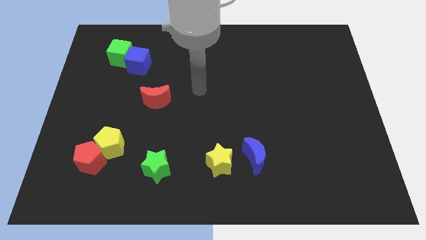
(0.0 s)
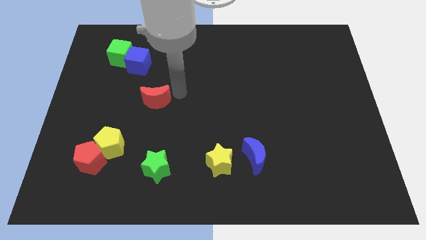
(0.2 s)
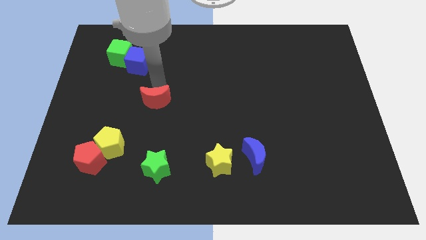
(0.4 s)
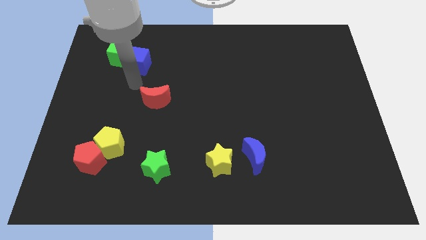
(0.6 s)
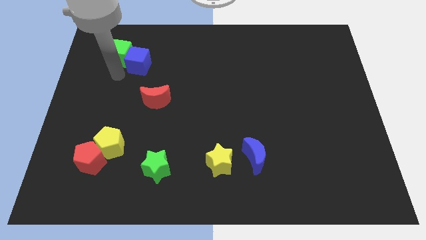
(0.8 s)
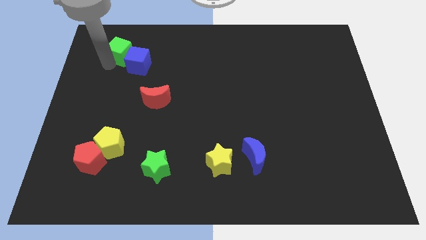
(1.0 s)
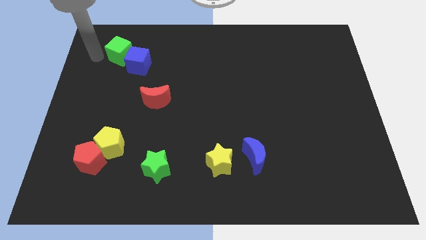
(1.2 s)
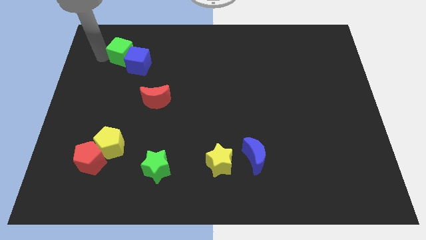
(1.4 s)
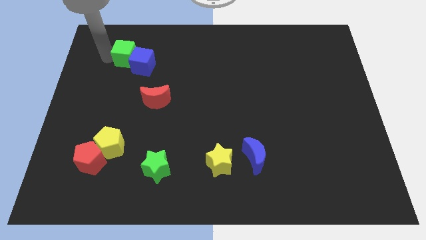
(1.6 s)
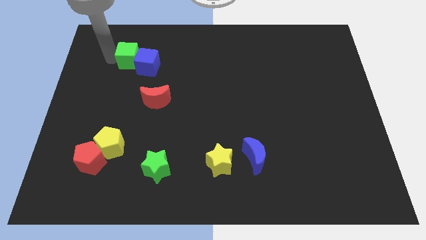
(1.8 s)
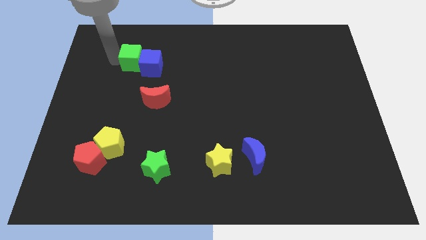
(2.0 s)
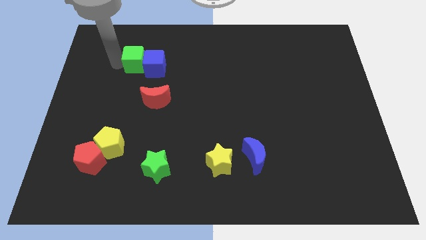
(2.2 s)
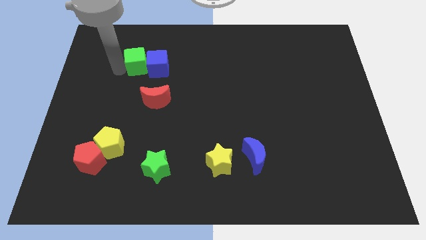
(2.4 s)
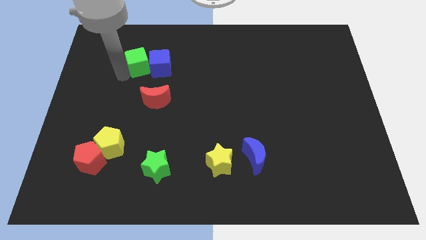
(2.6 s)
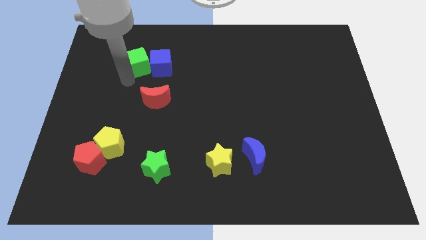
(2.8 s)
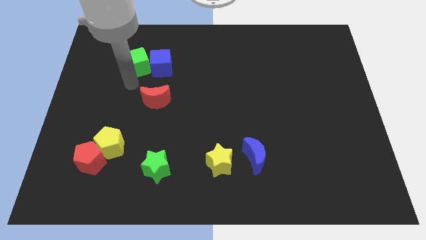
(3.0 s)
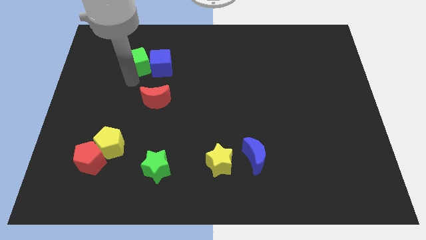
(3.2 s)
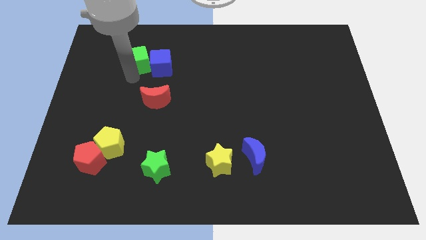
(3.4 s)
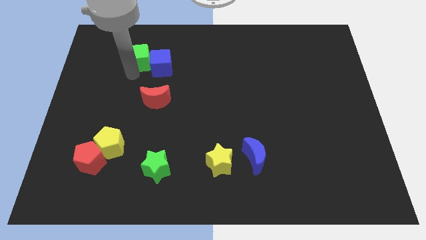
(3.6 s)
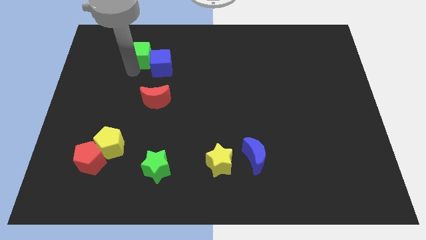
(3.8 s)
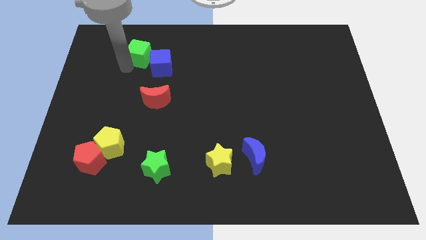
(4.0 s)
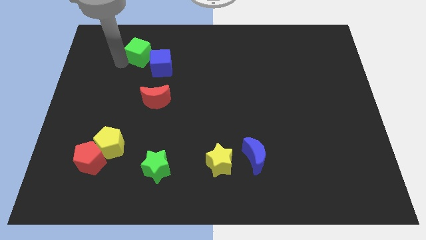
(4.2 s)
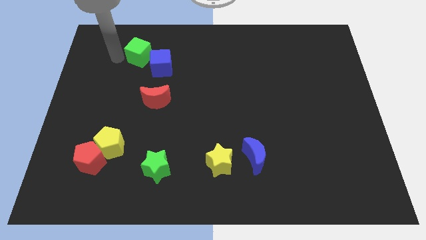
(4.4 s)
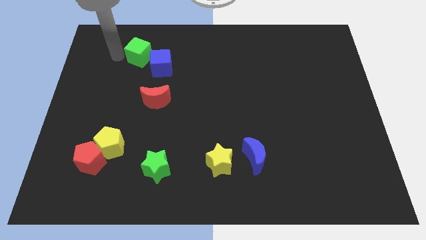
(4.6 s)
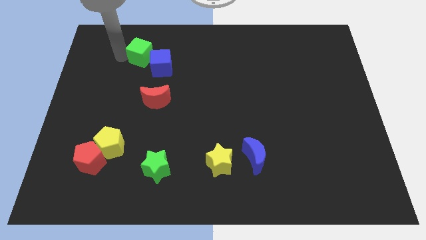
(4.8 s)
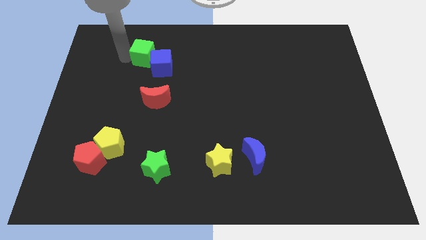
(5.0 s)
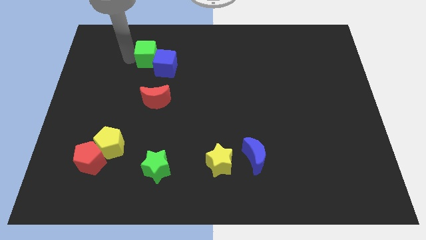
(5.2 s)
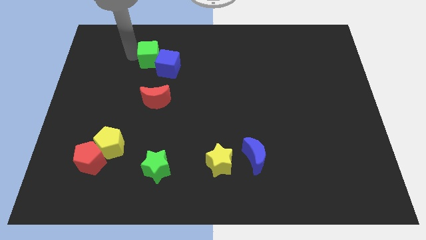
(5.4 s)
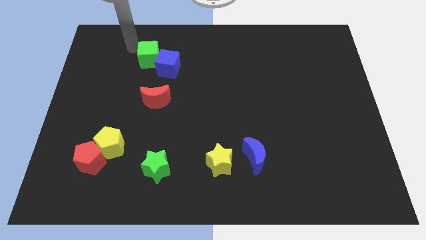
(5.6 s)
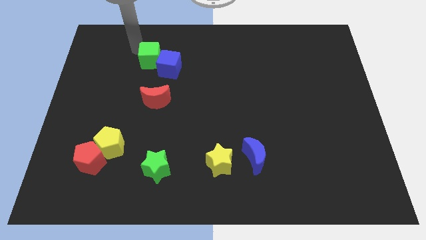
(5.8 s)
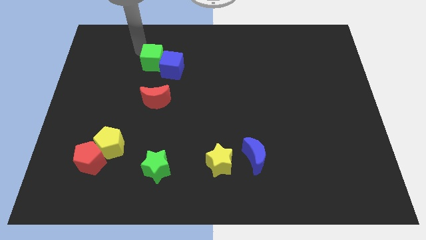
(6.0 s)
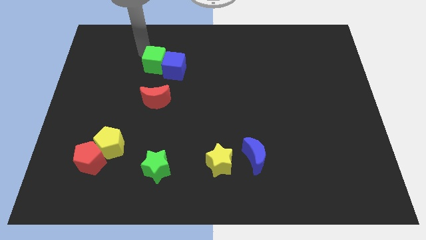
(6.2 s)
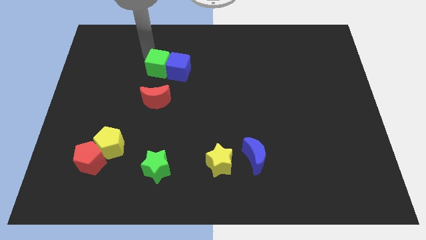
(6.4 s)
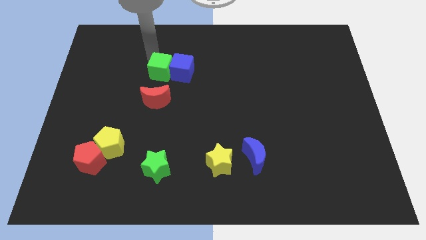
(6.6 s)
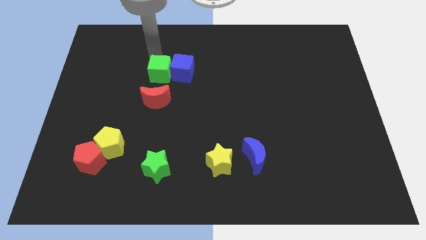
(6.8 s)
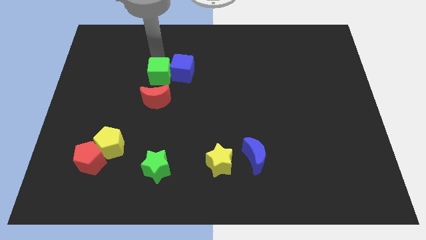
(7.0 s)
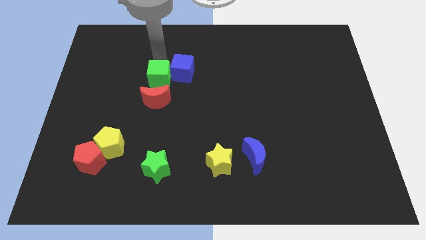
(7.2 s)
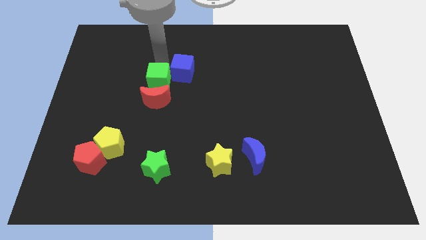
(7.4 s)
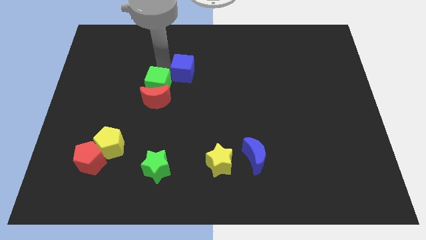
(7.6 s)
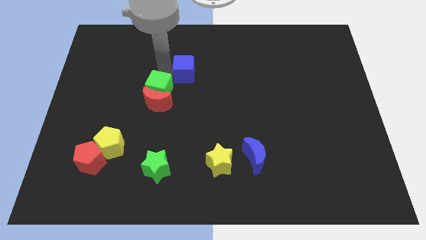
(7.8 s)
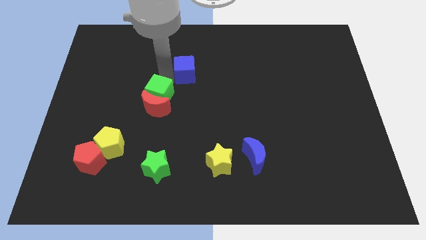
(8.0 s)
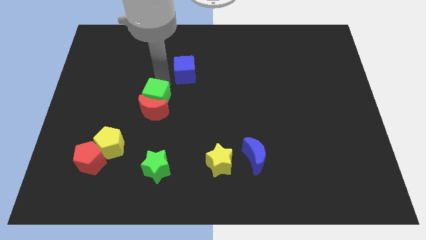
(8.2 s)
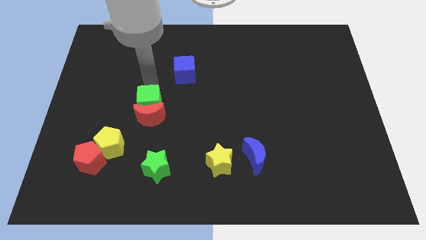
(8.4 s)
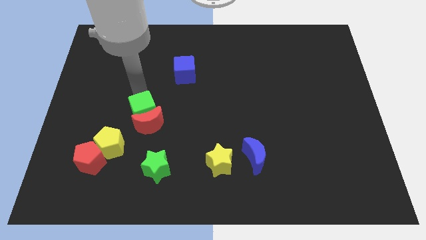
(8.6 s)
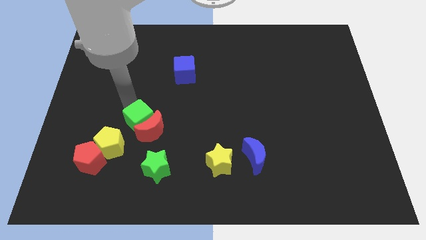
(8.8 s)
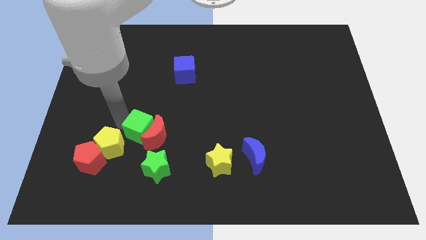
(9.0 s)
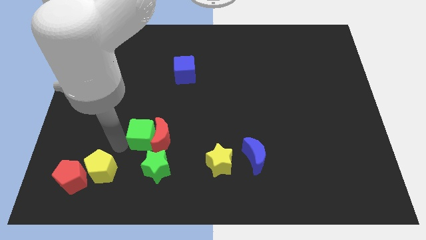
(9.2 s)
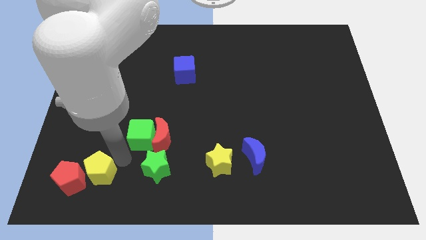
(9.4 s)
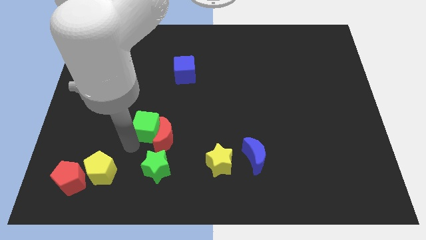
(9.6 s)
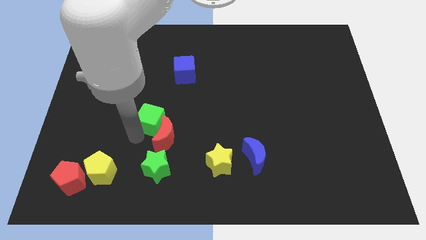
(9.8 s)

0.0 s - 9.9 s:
push the green cube downwards and right

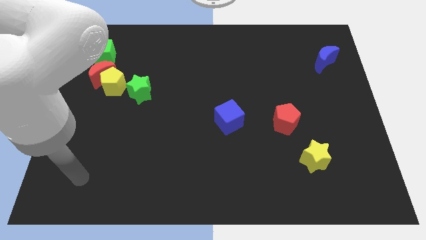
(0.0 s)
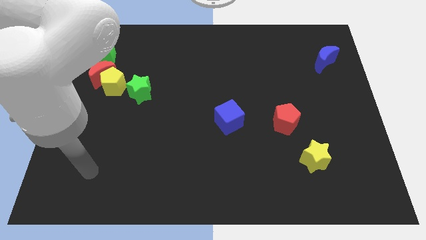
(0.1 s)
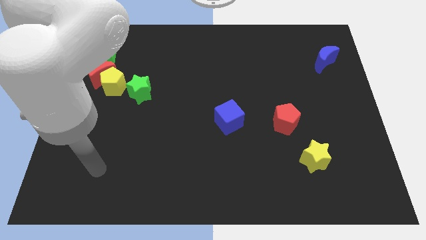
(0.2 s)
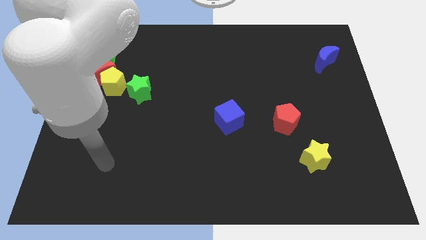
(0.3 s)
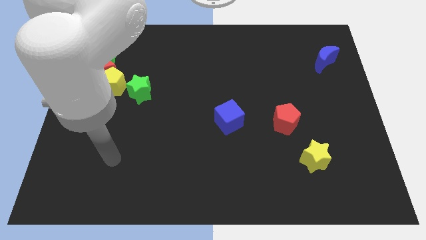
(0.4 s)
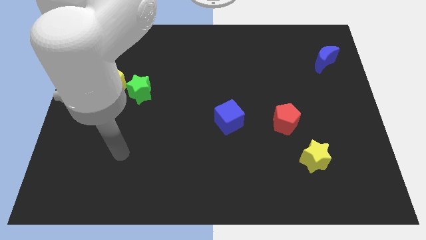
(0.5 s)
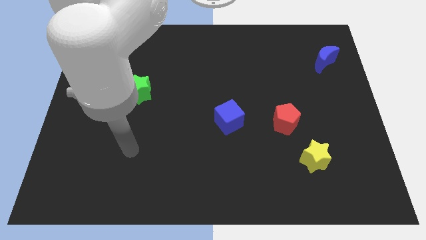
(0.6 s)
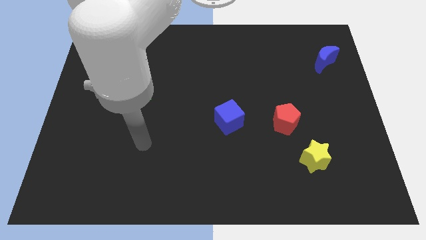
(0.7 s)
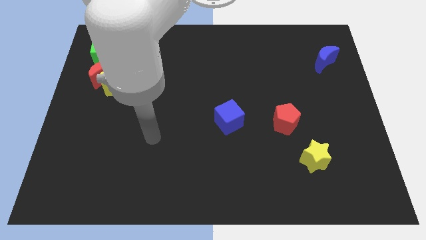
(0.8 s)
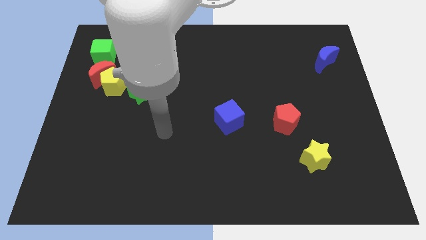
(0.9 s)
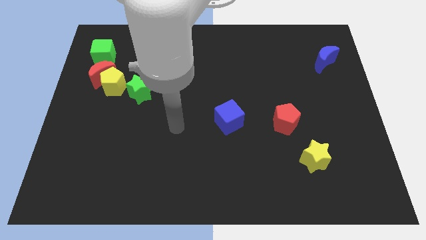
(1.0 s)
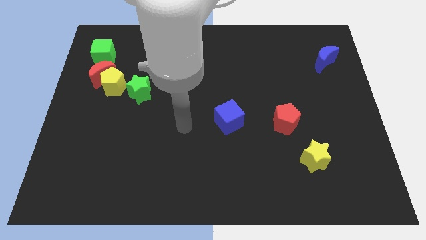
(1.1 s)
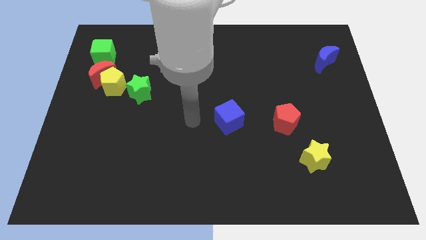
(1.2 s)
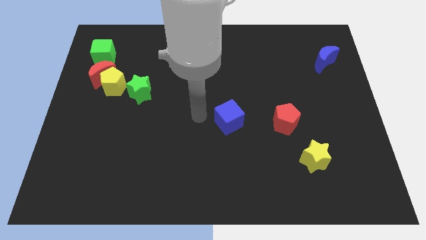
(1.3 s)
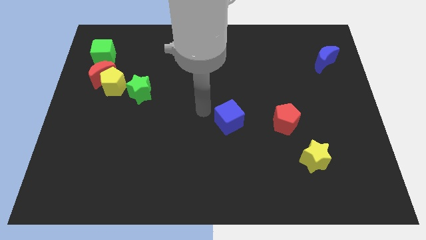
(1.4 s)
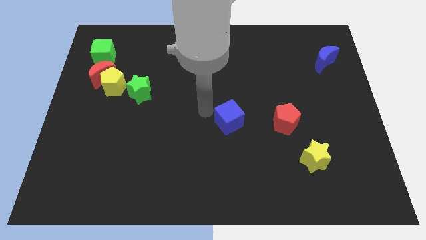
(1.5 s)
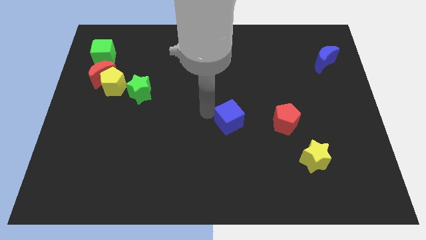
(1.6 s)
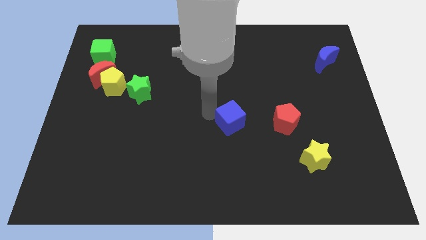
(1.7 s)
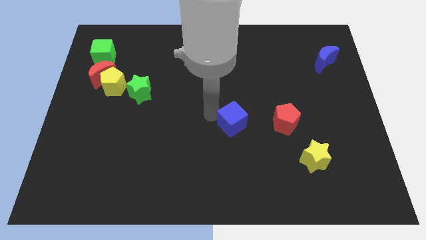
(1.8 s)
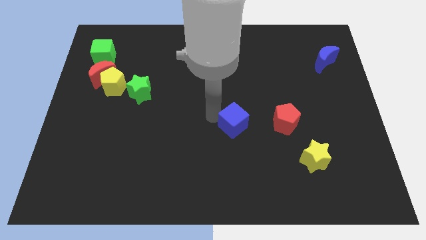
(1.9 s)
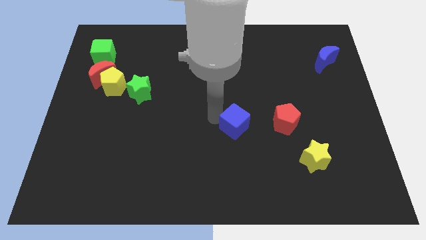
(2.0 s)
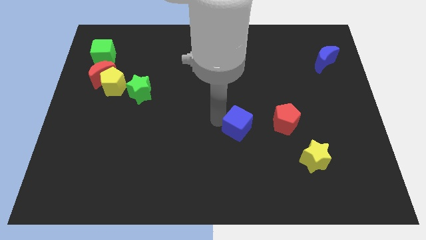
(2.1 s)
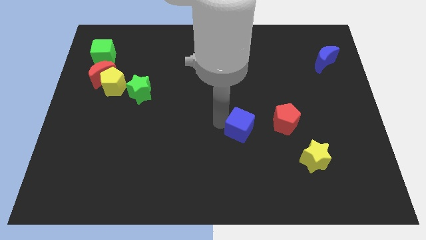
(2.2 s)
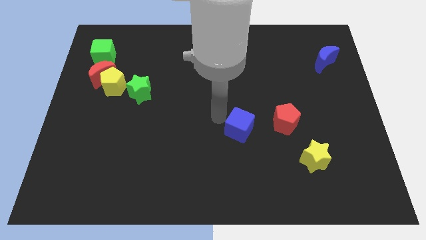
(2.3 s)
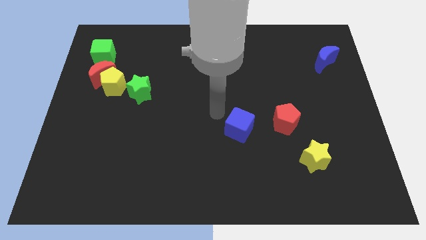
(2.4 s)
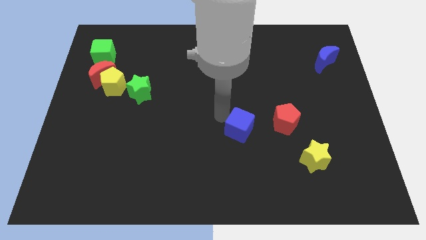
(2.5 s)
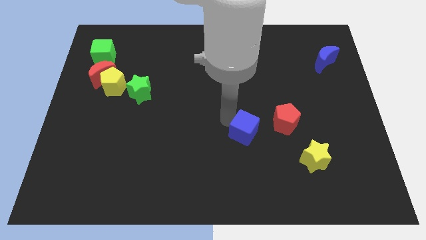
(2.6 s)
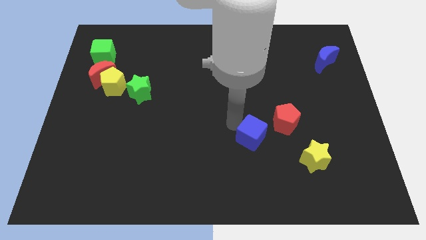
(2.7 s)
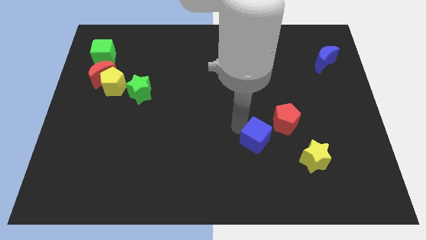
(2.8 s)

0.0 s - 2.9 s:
push the blue cube a little bit down and right diagonally

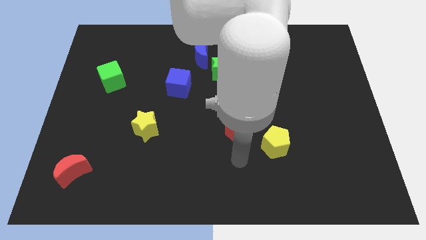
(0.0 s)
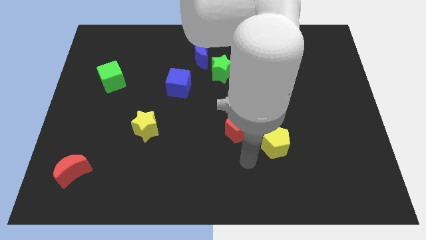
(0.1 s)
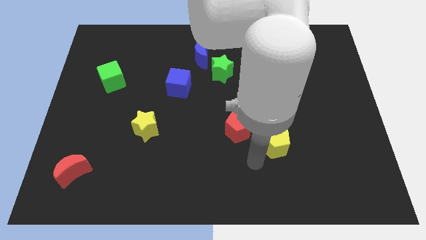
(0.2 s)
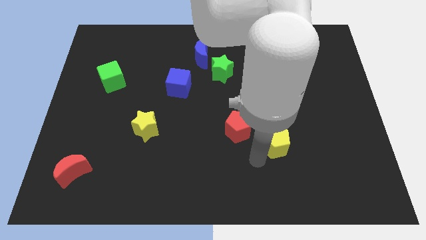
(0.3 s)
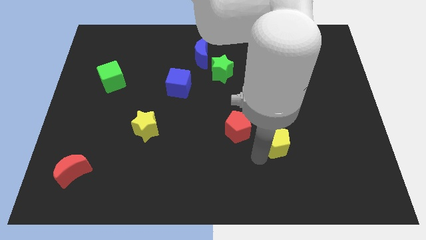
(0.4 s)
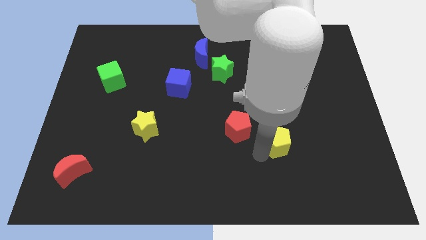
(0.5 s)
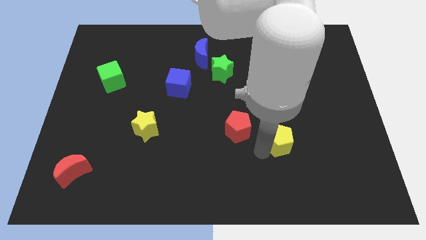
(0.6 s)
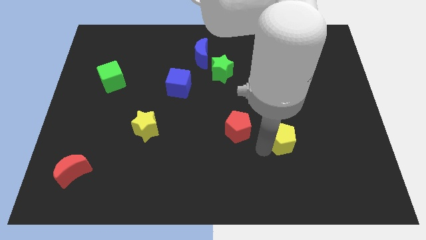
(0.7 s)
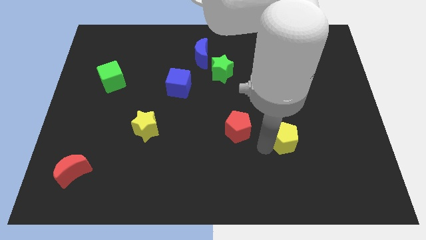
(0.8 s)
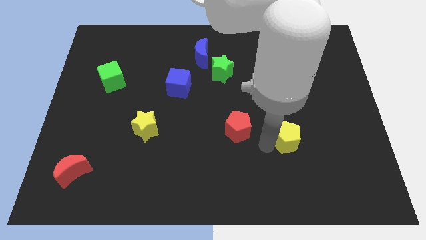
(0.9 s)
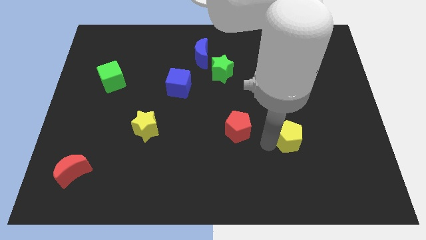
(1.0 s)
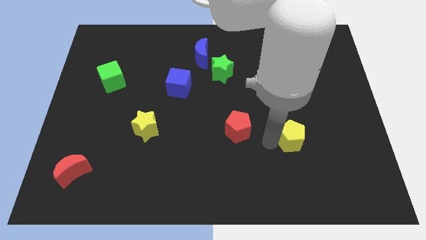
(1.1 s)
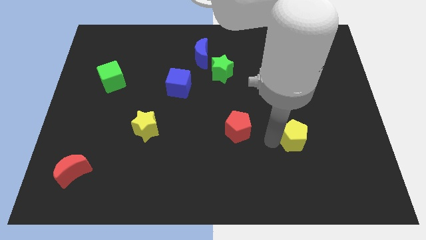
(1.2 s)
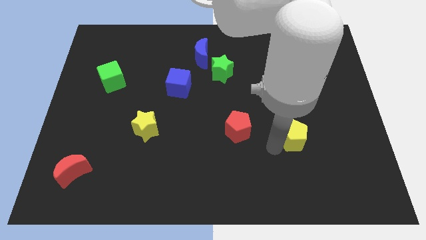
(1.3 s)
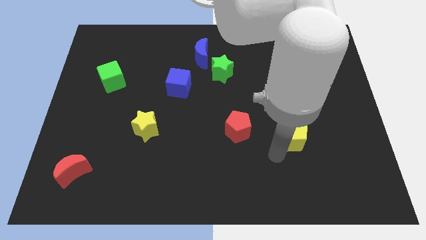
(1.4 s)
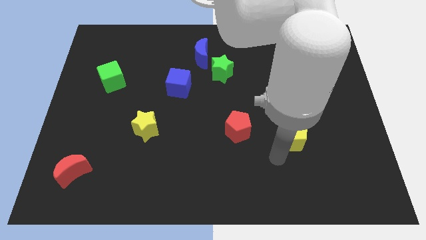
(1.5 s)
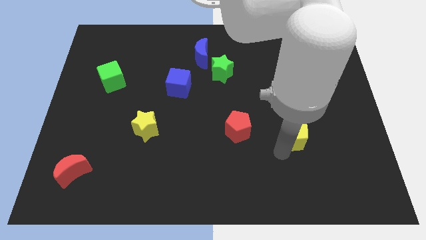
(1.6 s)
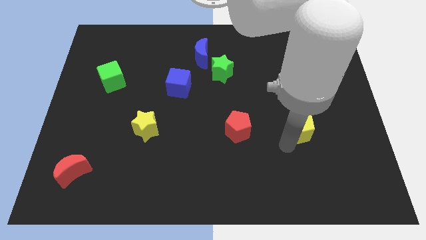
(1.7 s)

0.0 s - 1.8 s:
push the yellow pentagon a bit upwards and right diagonally
